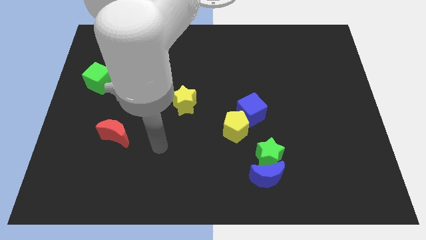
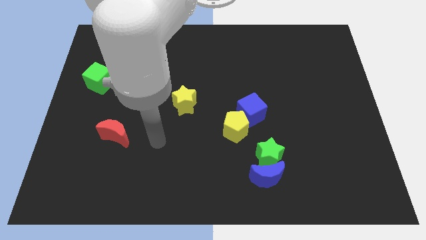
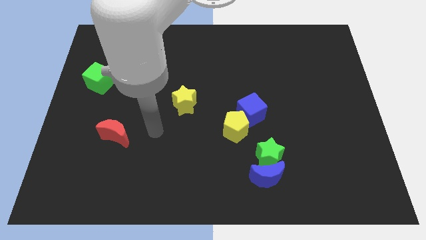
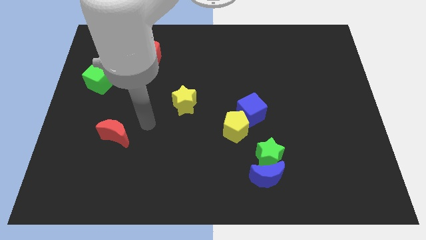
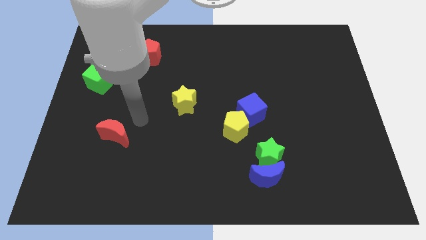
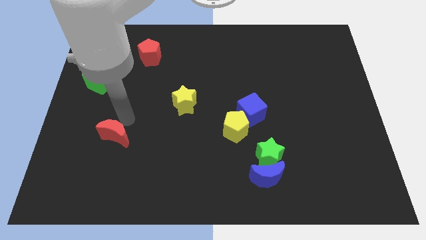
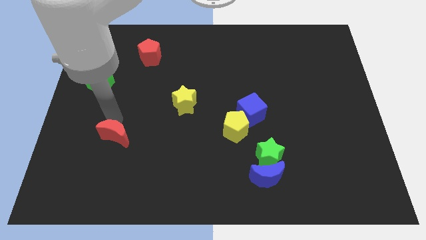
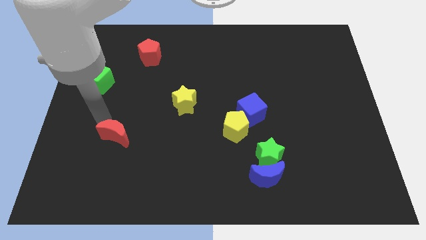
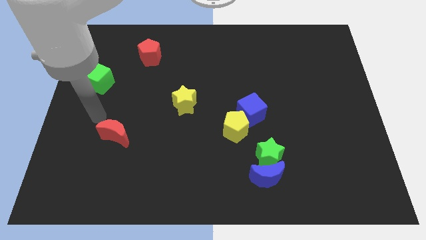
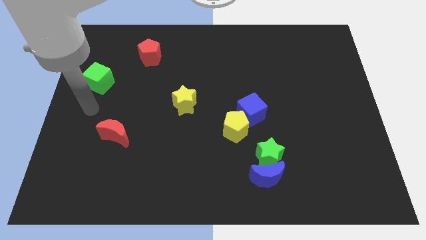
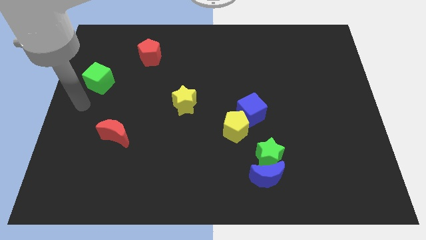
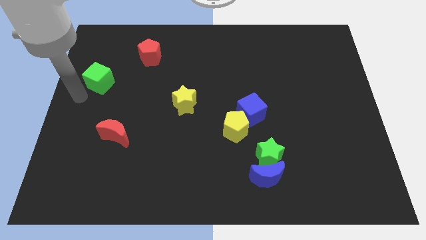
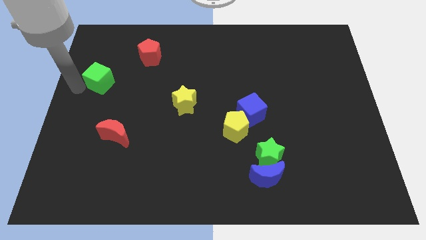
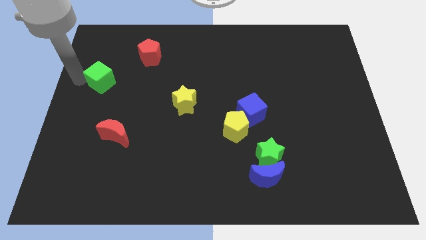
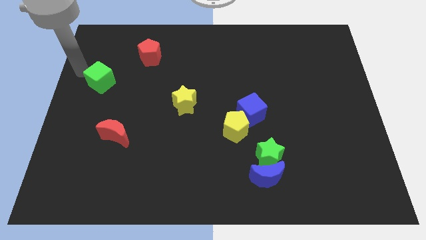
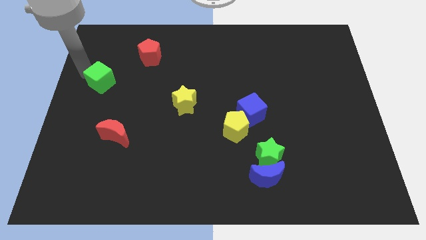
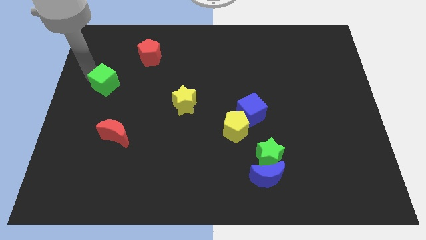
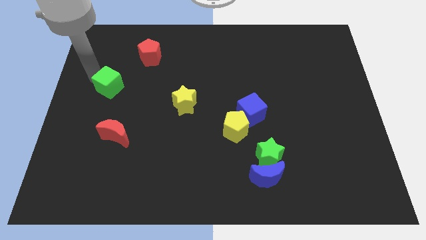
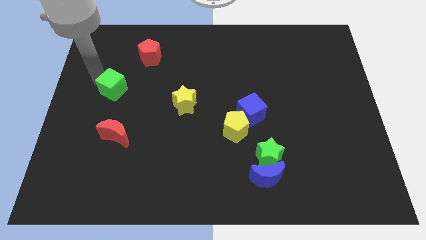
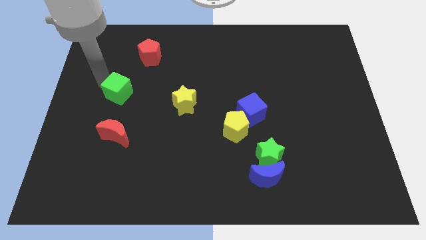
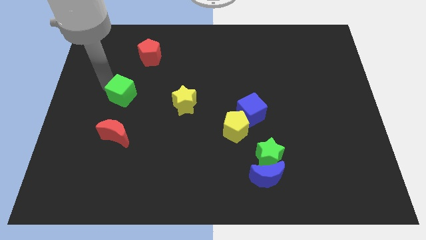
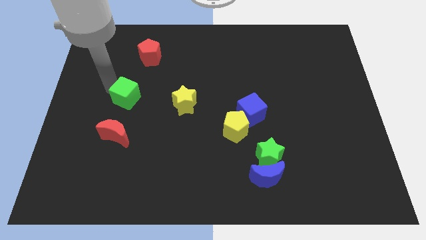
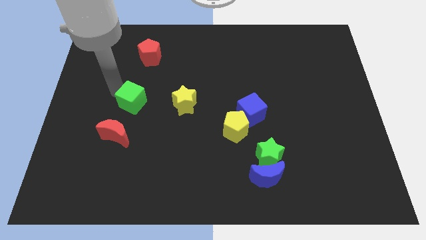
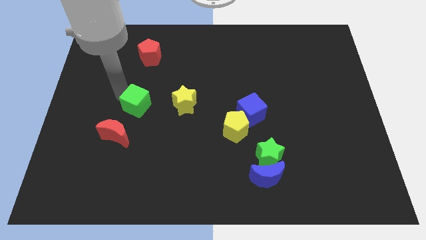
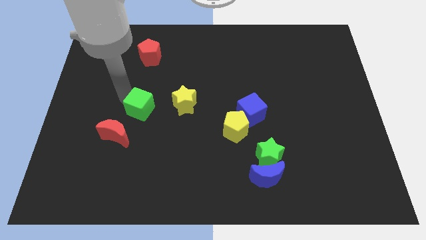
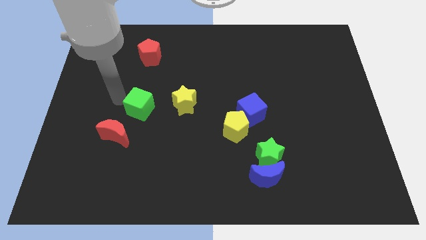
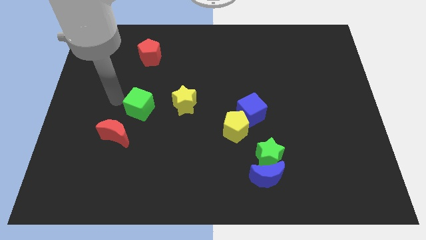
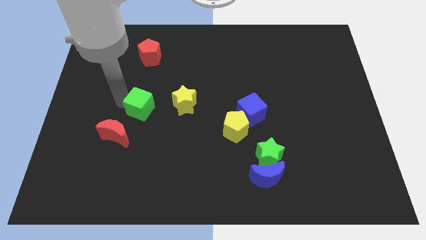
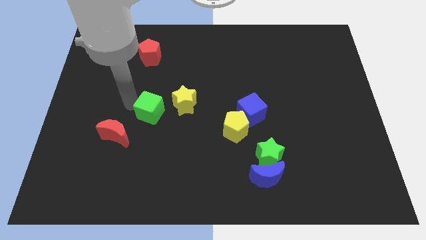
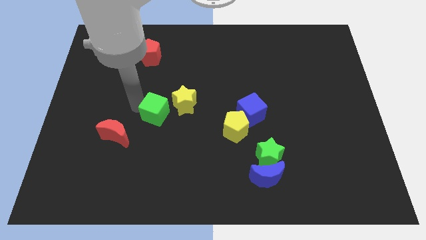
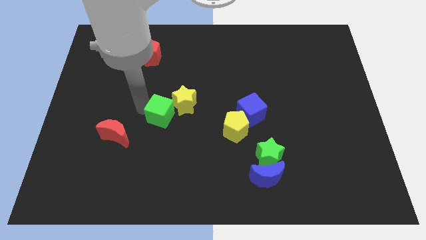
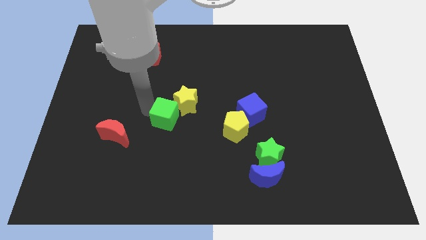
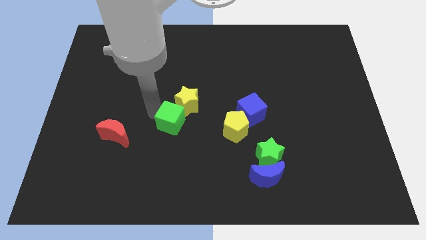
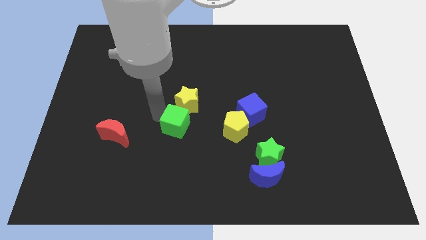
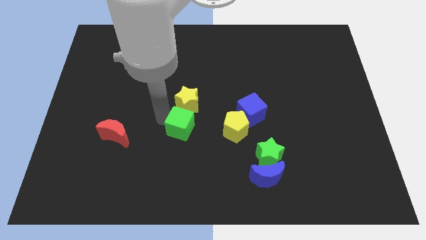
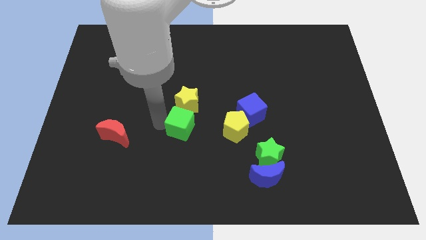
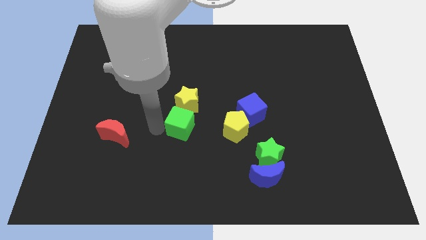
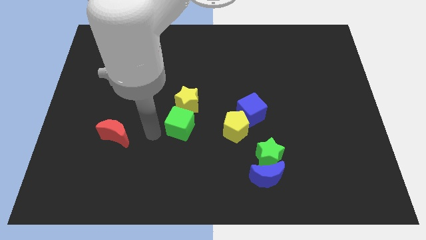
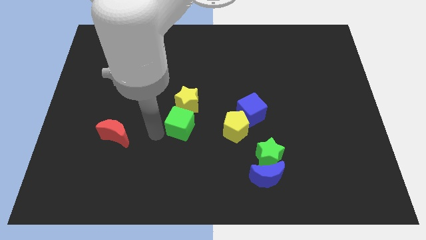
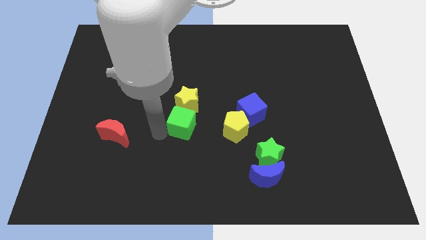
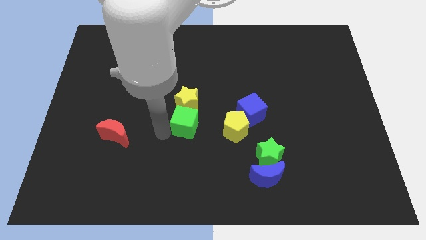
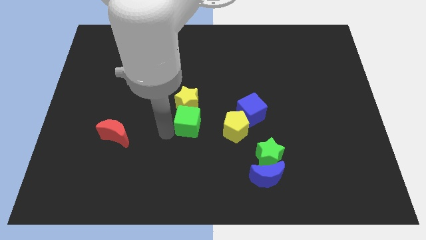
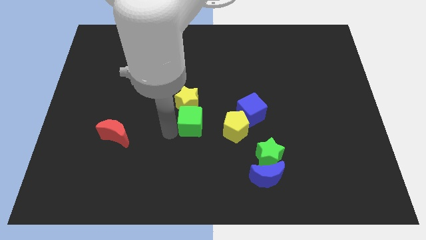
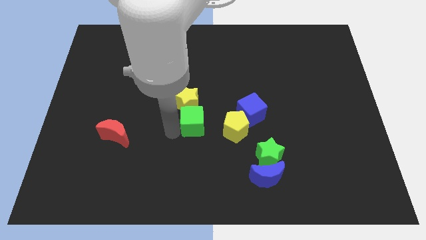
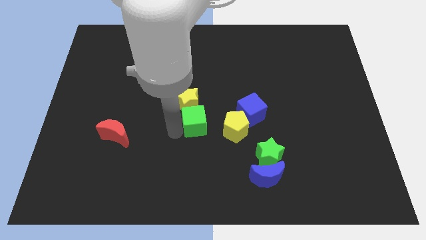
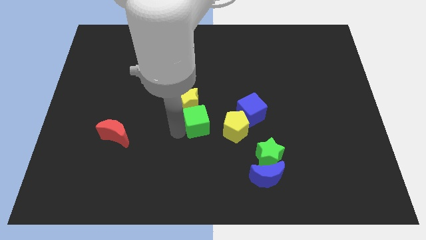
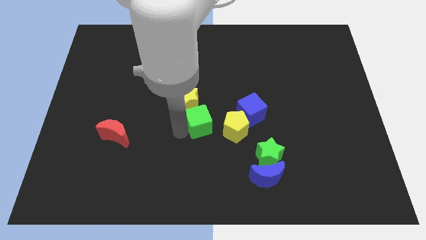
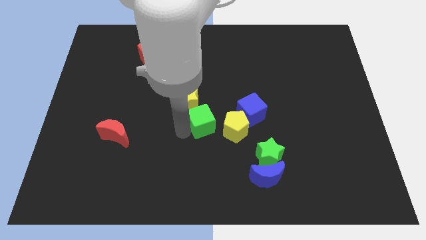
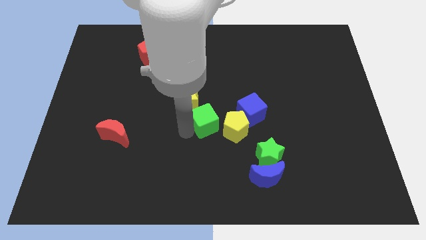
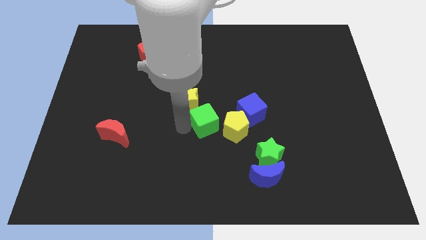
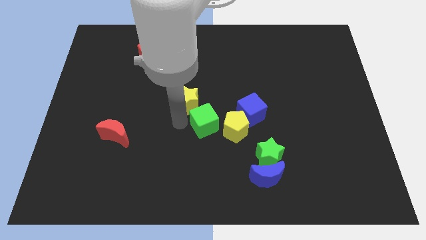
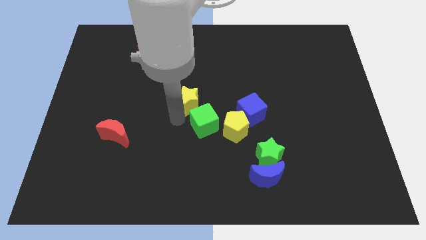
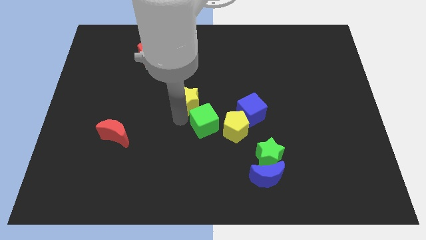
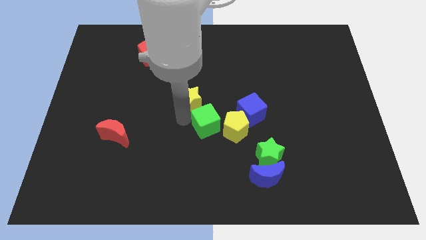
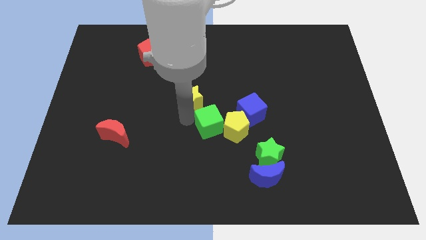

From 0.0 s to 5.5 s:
move the green cube close to the yellow pentagon

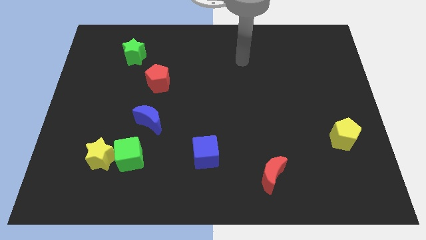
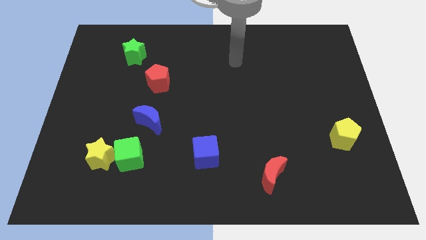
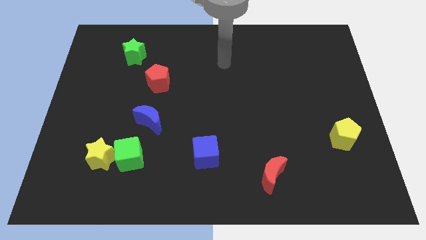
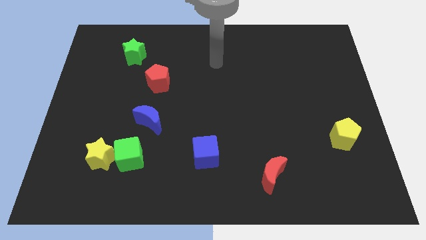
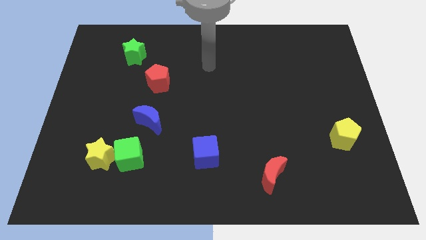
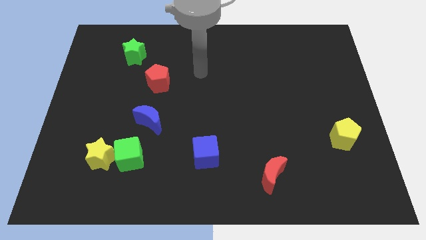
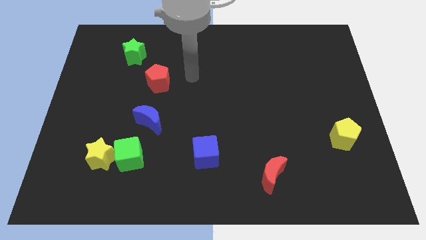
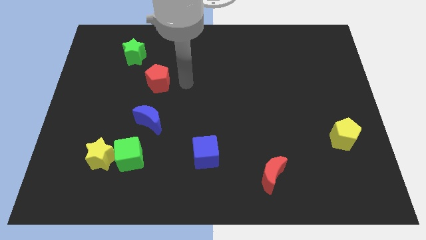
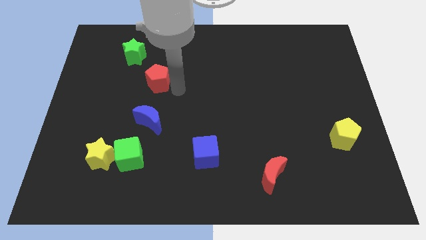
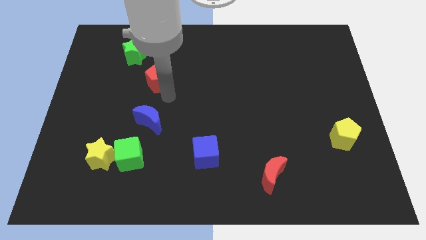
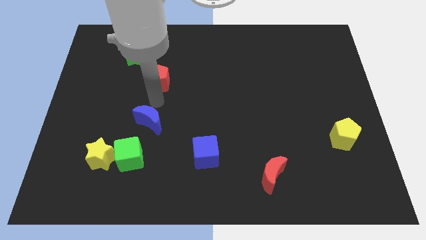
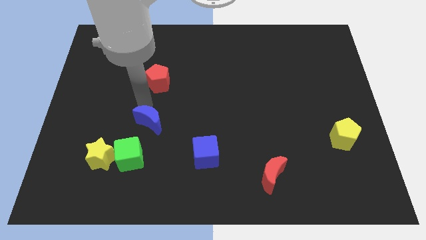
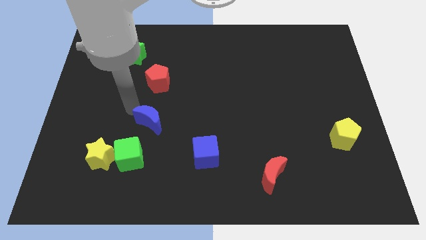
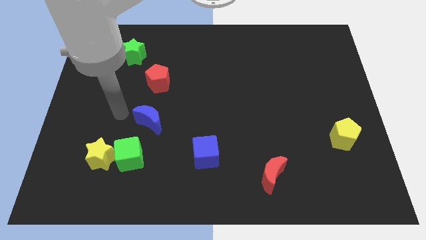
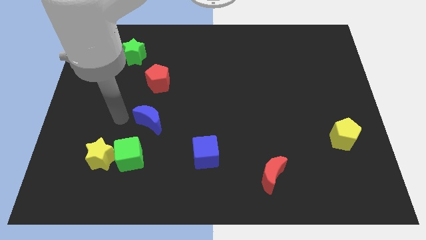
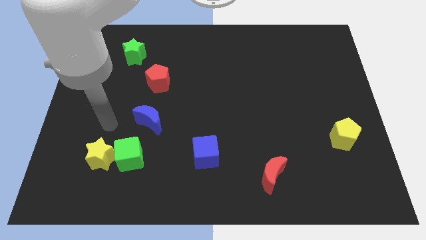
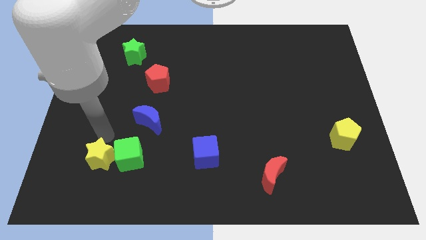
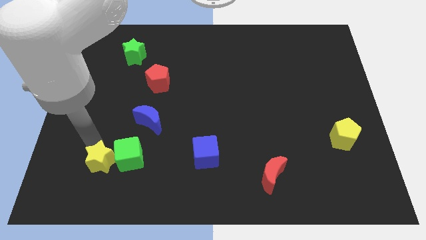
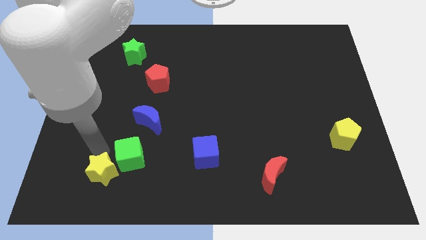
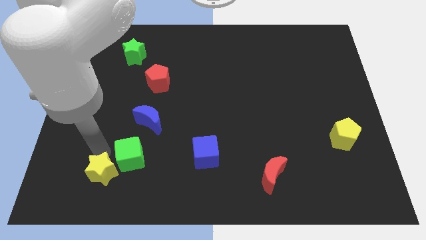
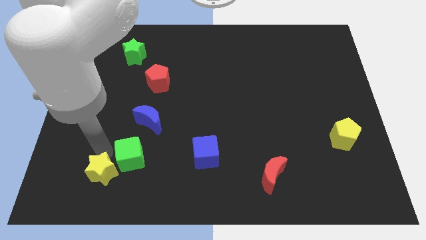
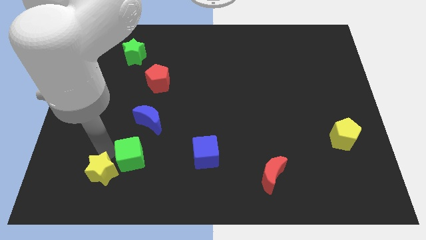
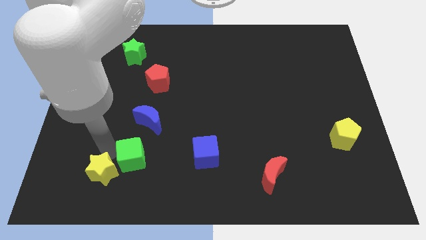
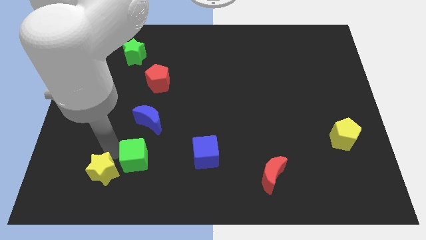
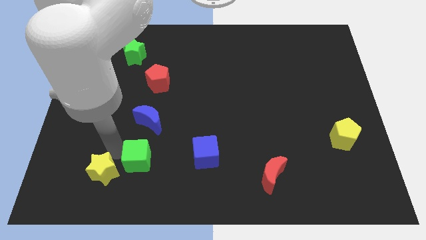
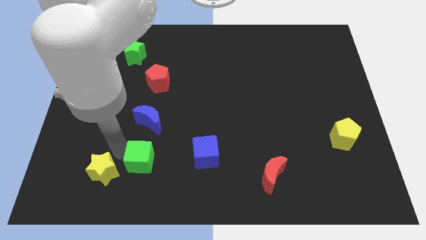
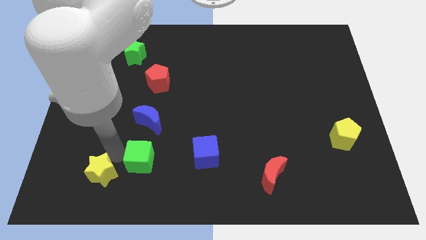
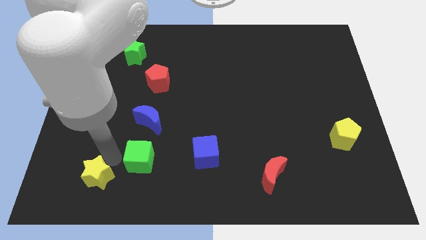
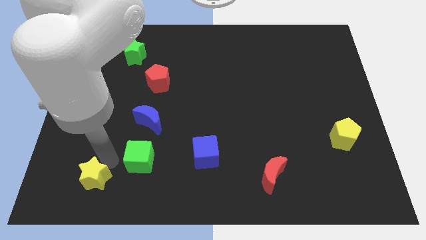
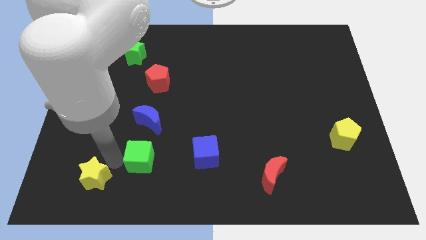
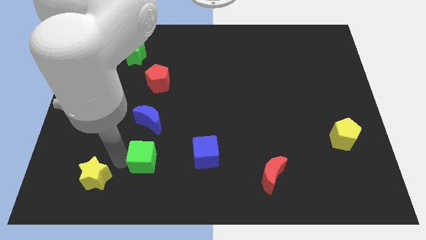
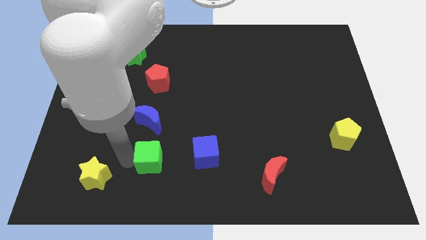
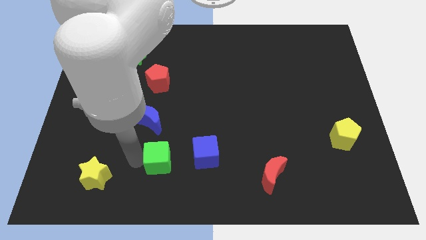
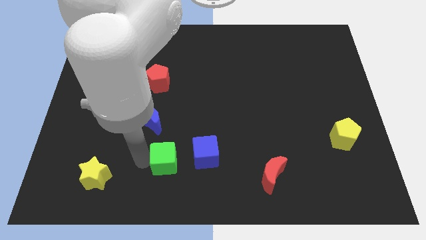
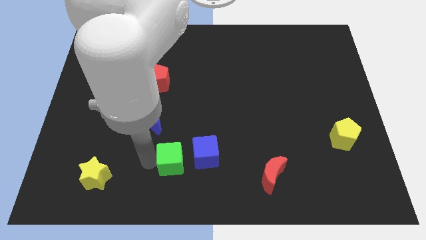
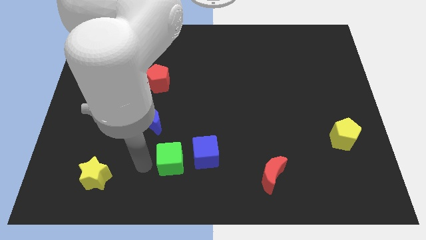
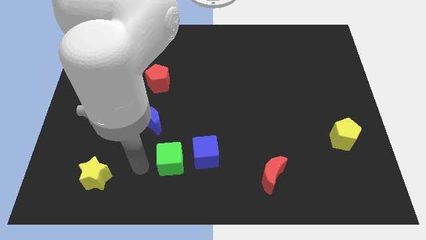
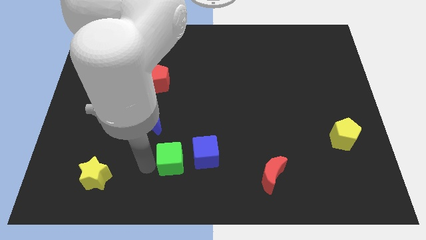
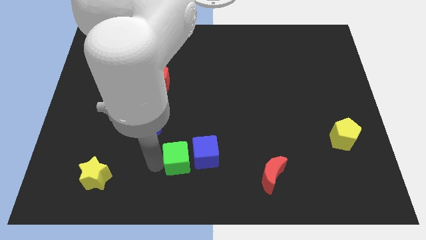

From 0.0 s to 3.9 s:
slide the green cube next to the blue cube
